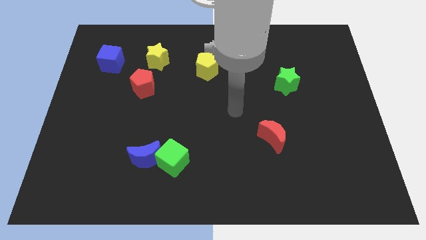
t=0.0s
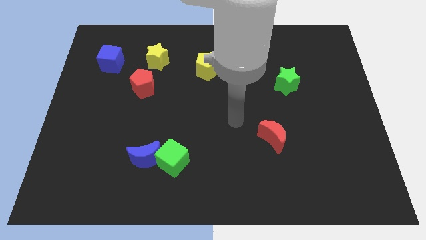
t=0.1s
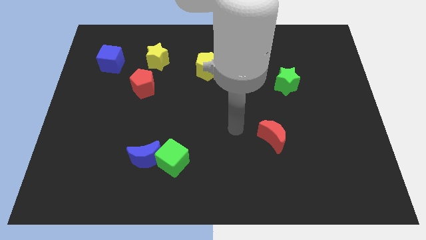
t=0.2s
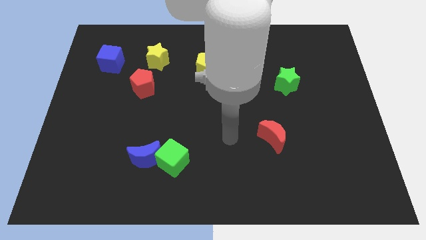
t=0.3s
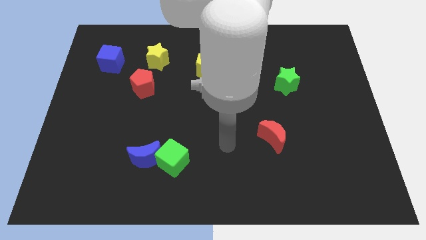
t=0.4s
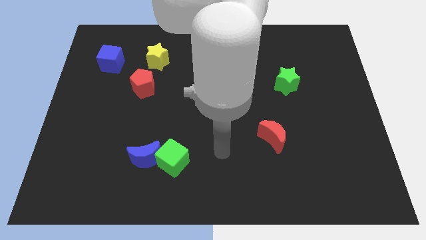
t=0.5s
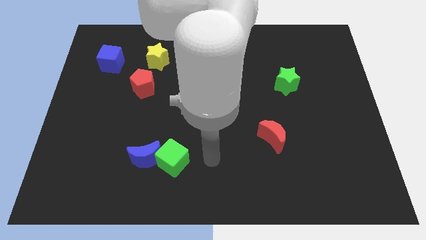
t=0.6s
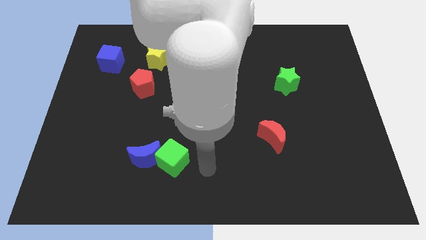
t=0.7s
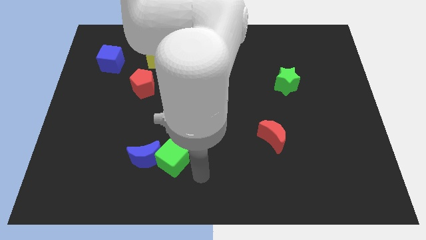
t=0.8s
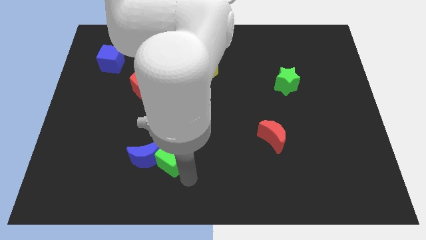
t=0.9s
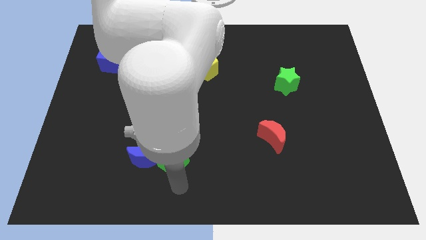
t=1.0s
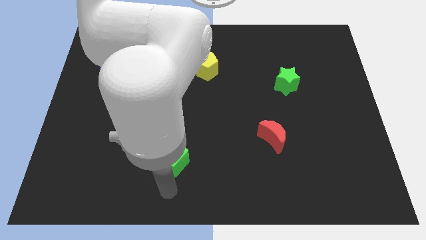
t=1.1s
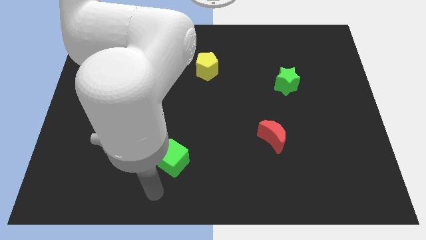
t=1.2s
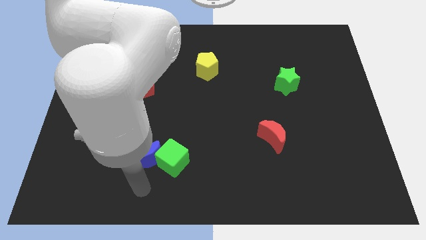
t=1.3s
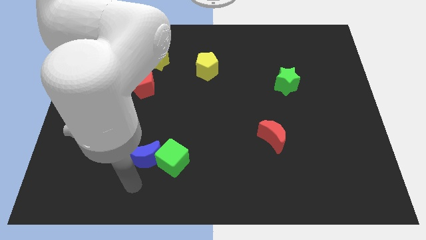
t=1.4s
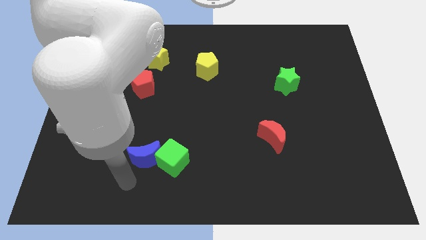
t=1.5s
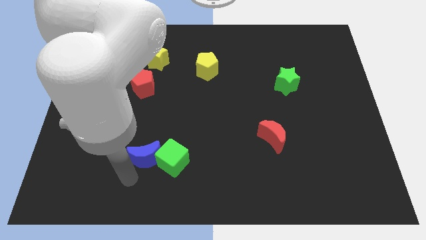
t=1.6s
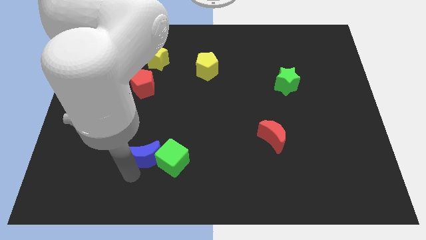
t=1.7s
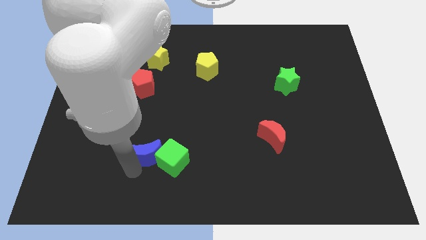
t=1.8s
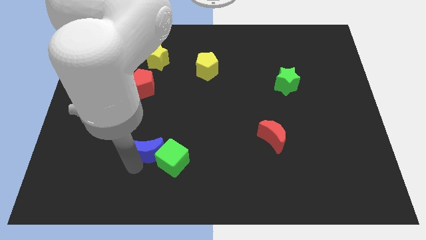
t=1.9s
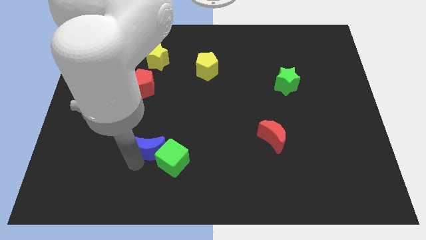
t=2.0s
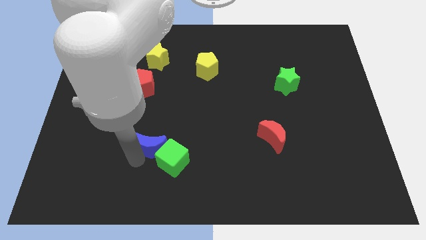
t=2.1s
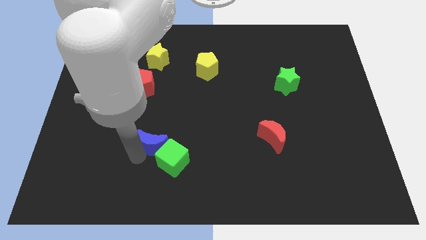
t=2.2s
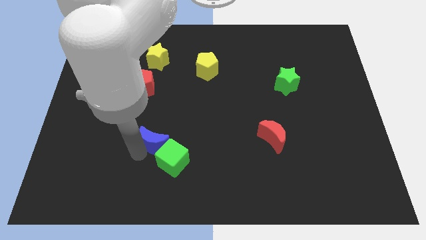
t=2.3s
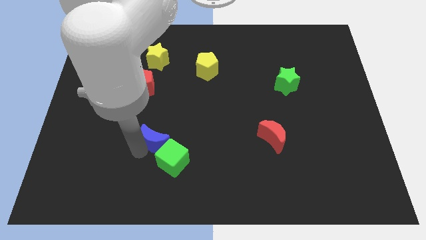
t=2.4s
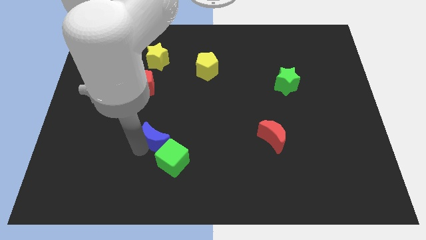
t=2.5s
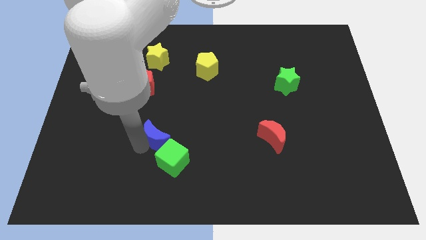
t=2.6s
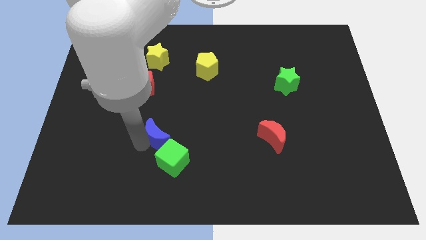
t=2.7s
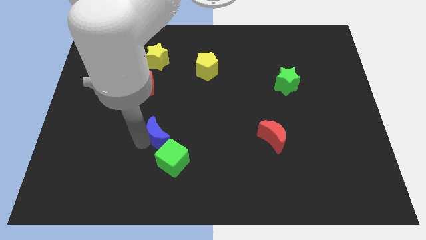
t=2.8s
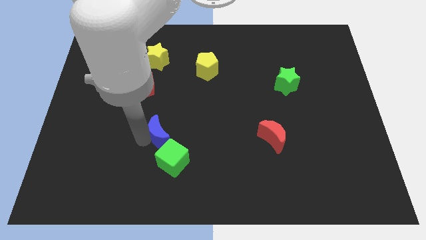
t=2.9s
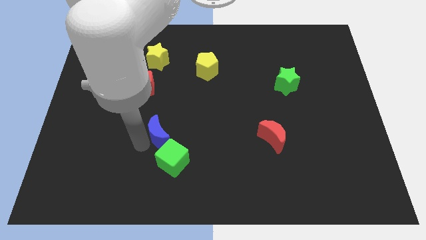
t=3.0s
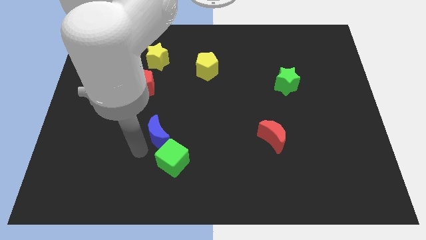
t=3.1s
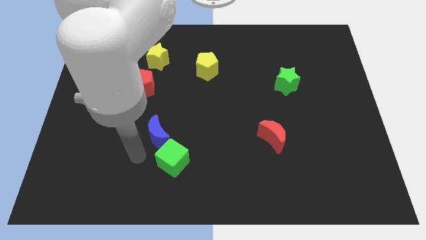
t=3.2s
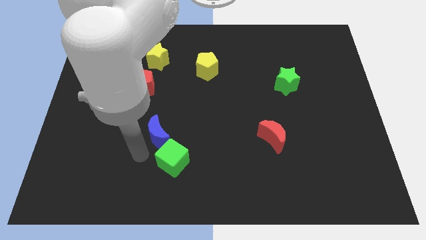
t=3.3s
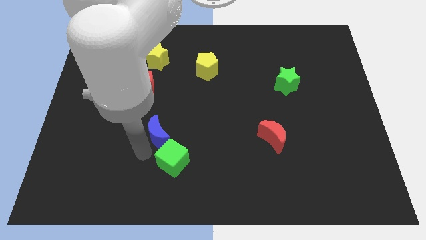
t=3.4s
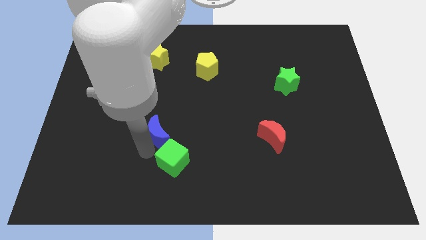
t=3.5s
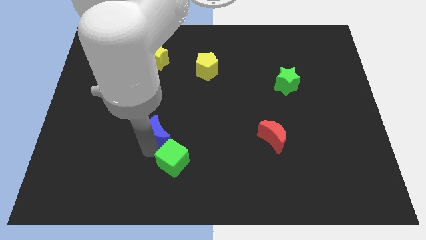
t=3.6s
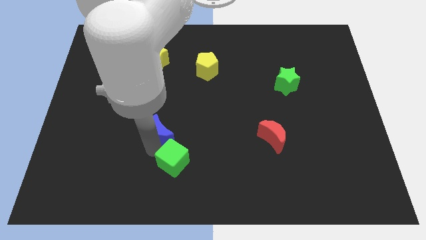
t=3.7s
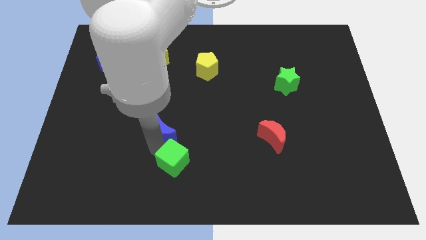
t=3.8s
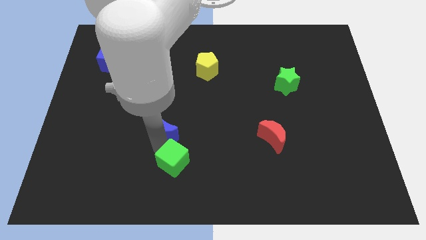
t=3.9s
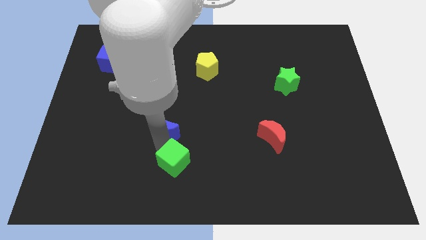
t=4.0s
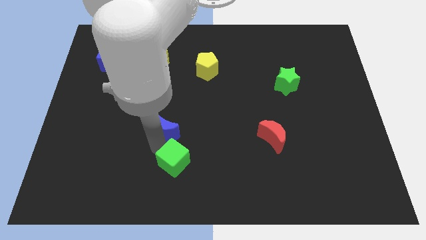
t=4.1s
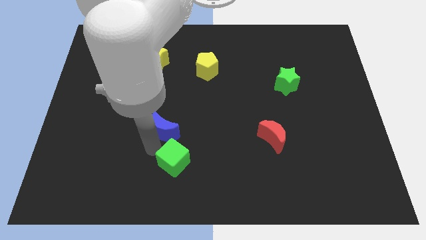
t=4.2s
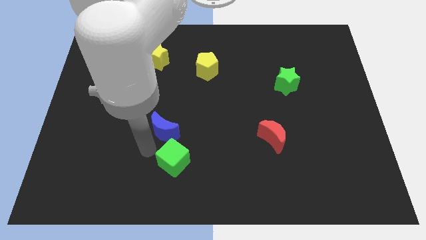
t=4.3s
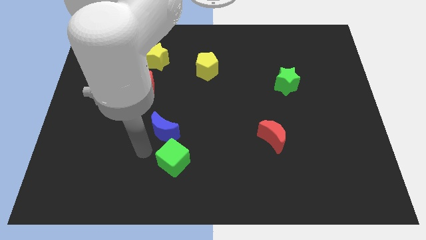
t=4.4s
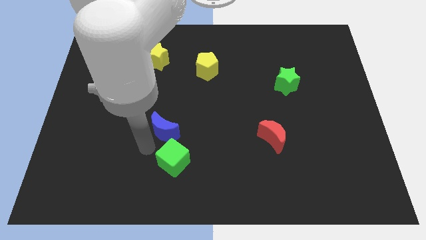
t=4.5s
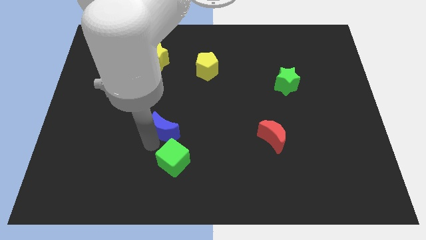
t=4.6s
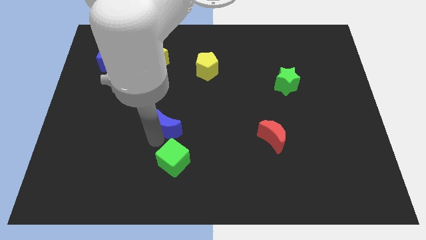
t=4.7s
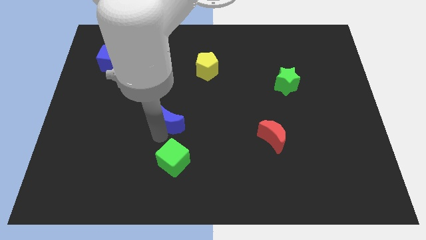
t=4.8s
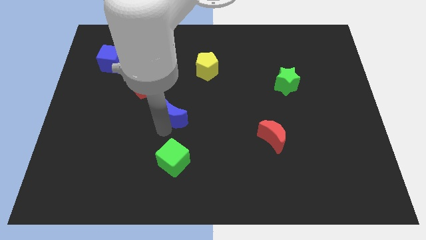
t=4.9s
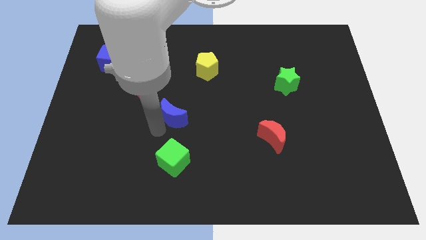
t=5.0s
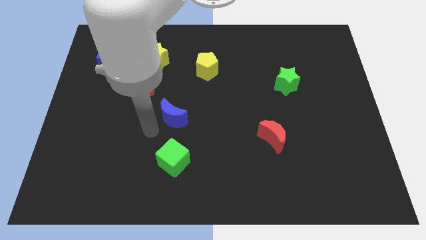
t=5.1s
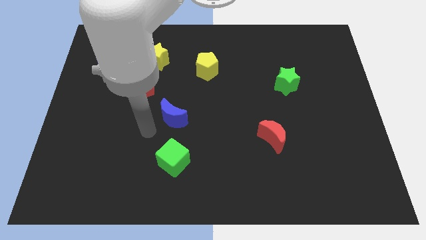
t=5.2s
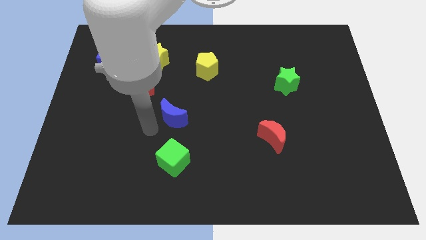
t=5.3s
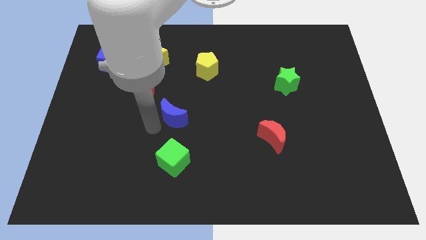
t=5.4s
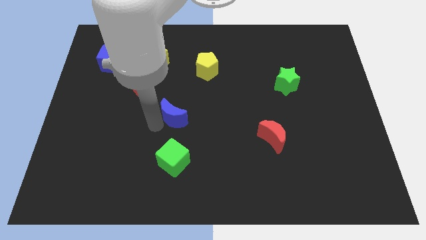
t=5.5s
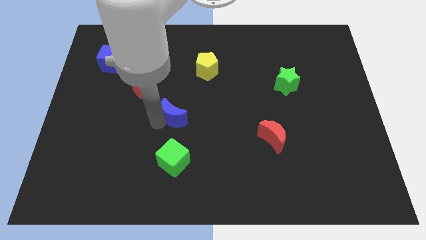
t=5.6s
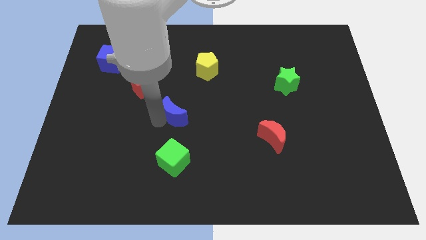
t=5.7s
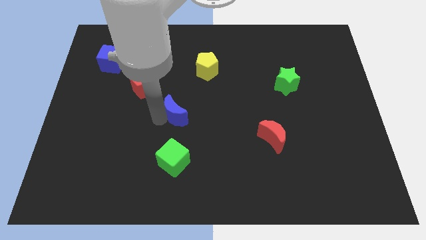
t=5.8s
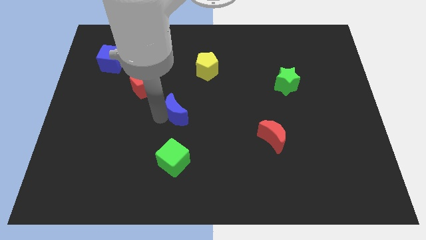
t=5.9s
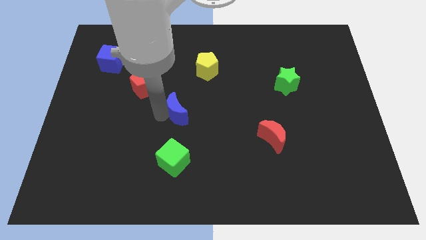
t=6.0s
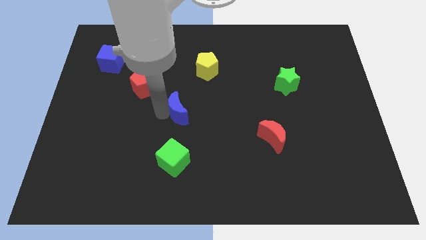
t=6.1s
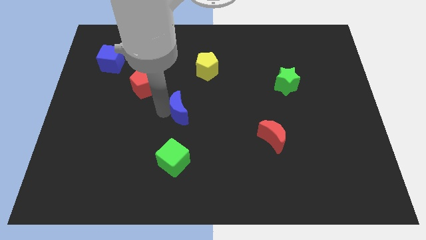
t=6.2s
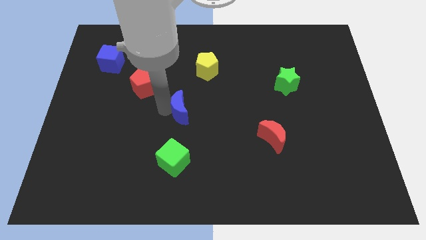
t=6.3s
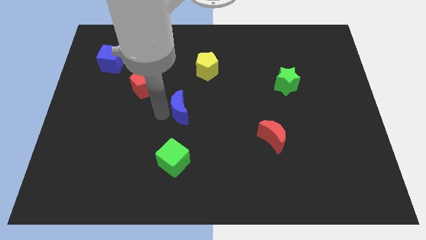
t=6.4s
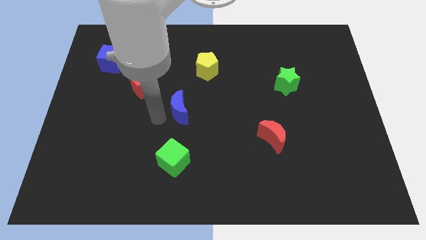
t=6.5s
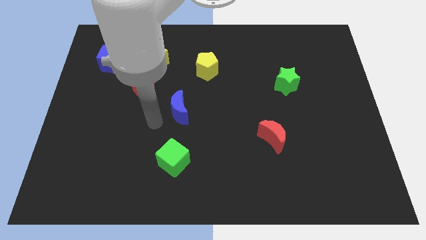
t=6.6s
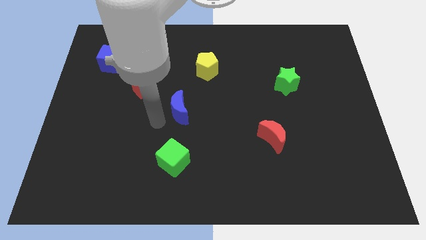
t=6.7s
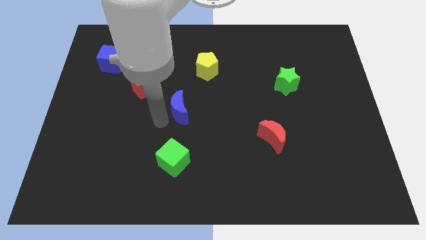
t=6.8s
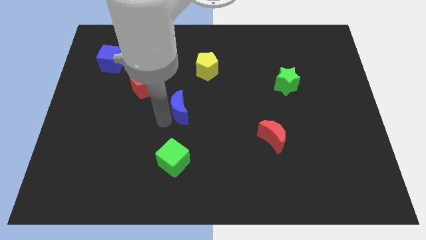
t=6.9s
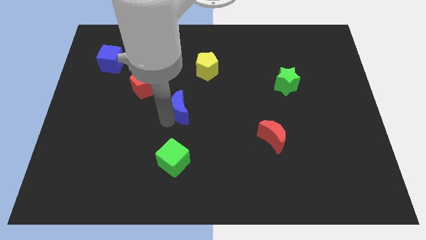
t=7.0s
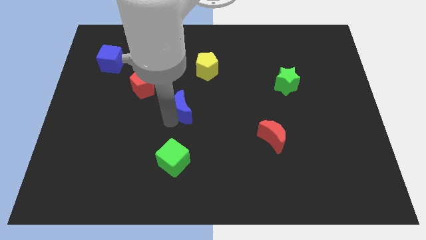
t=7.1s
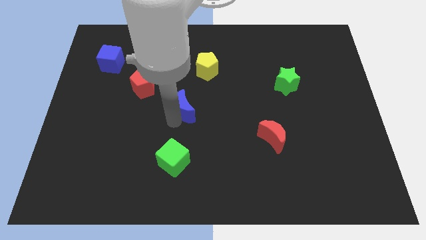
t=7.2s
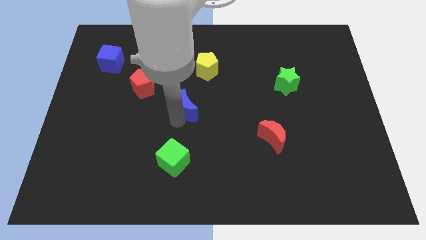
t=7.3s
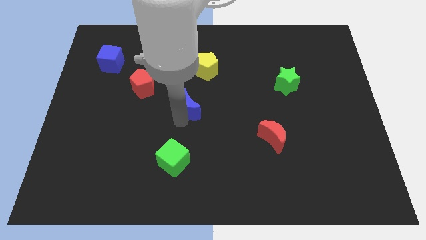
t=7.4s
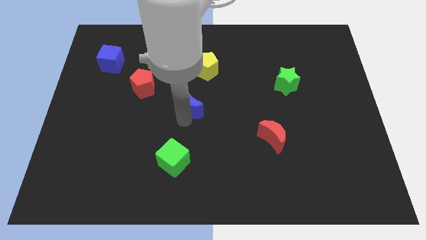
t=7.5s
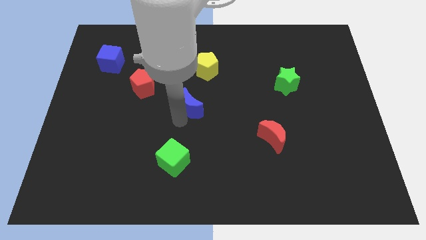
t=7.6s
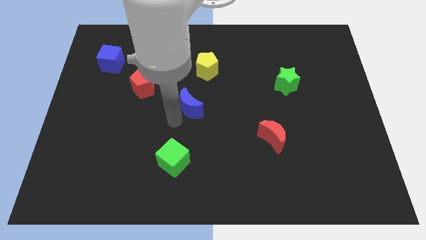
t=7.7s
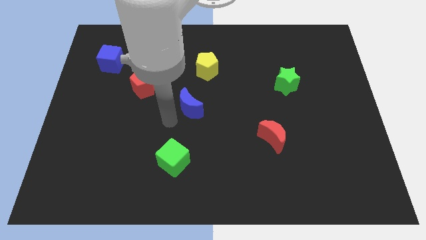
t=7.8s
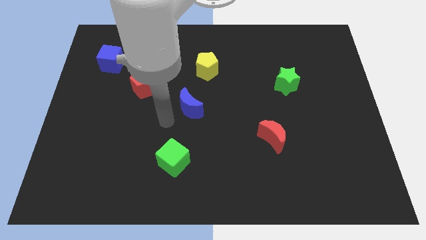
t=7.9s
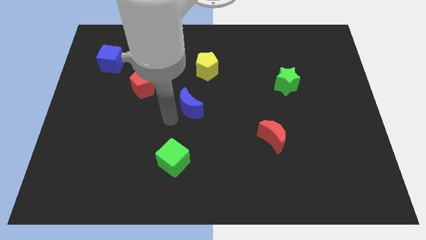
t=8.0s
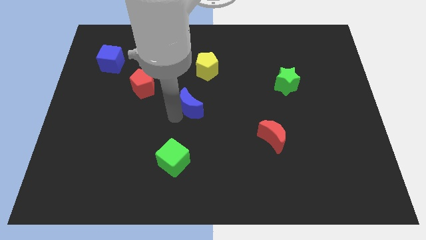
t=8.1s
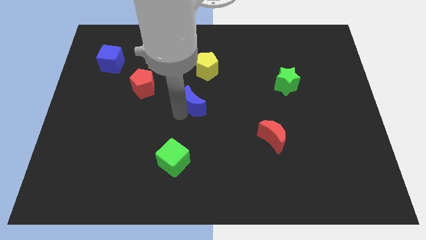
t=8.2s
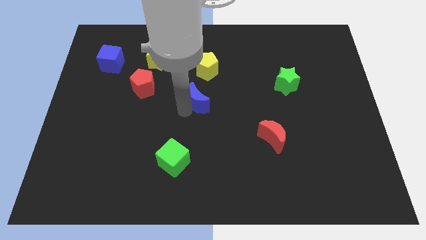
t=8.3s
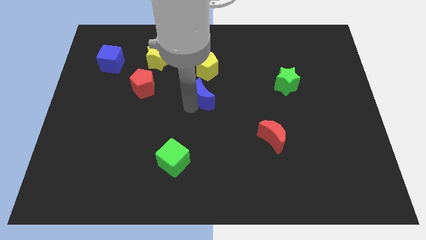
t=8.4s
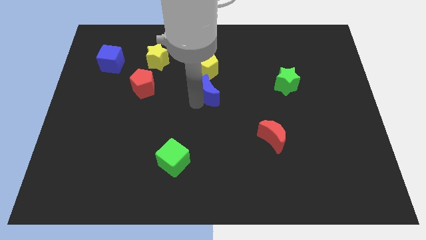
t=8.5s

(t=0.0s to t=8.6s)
slide the blue moon up and then to the right
